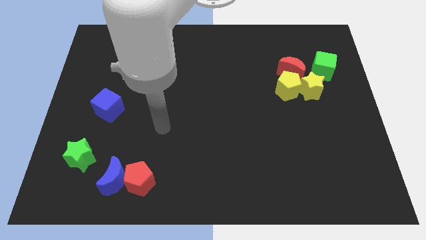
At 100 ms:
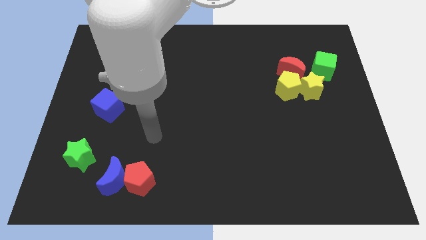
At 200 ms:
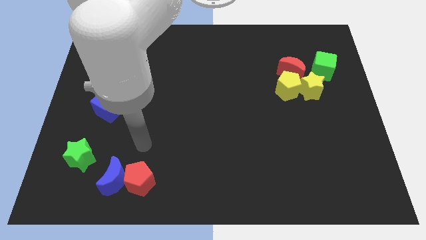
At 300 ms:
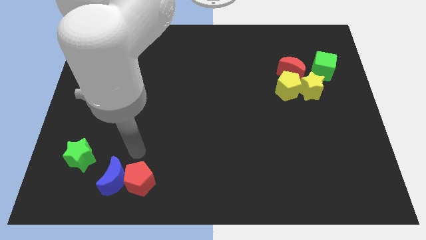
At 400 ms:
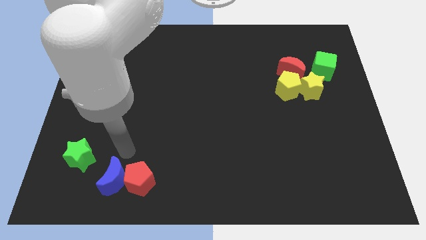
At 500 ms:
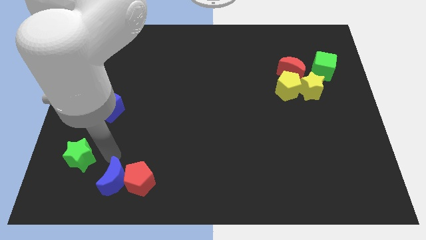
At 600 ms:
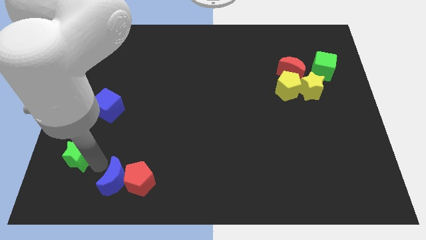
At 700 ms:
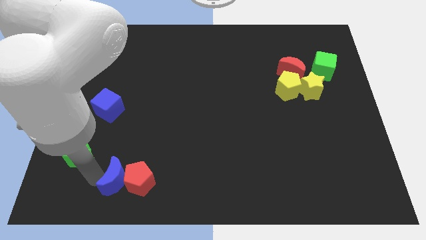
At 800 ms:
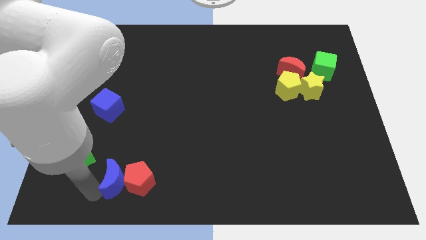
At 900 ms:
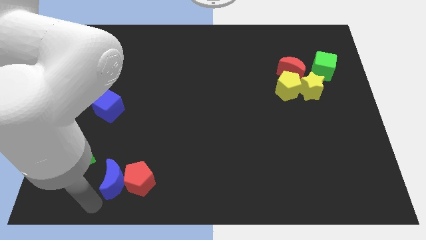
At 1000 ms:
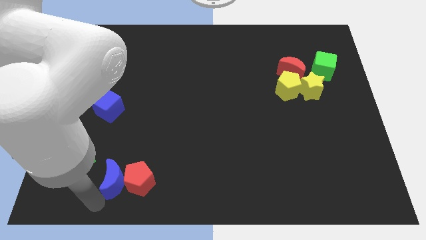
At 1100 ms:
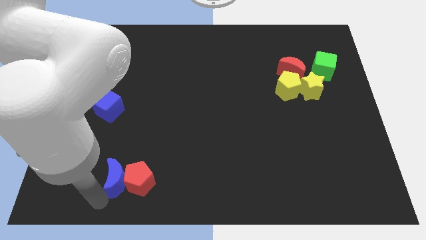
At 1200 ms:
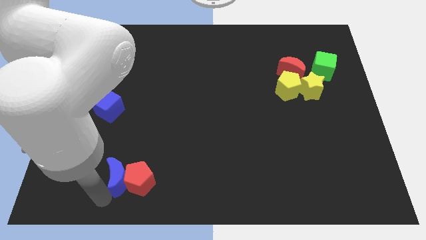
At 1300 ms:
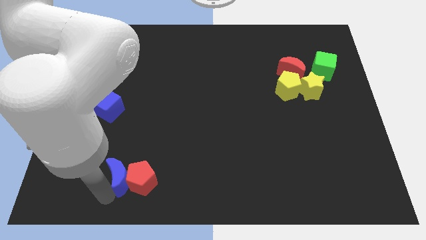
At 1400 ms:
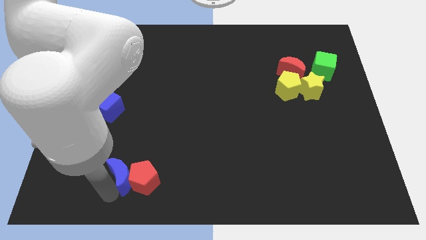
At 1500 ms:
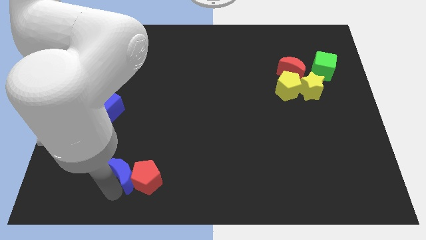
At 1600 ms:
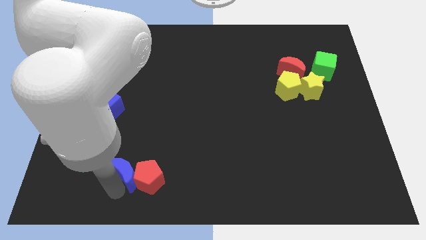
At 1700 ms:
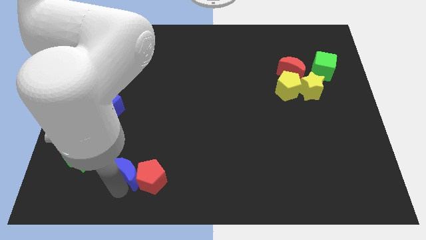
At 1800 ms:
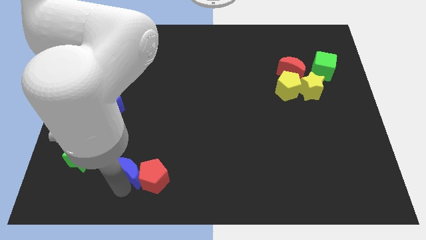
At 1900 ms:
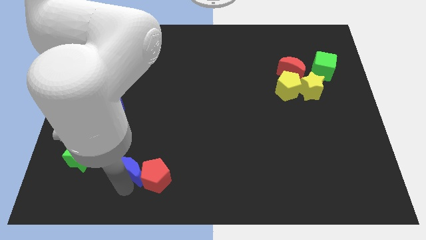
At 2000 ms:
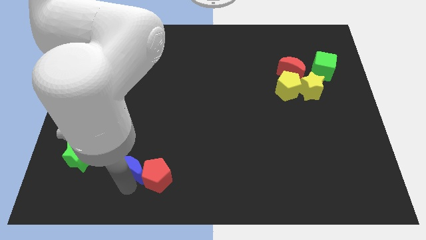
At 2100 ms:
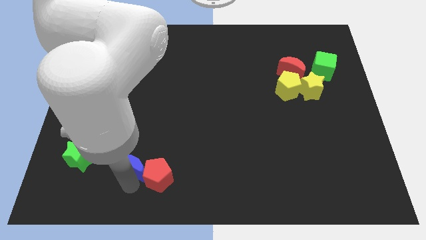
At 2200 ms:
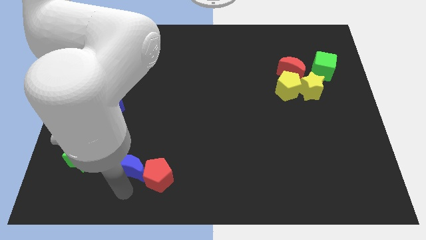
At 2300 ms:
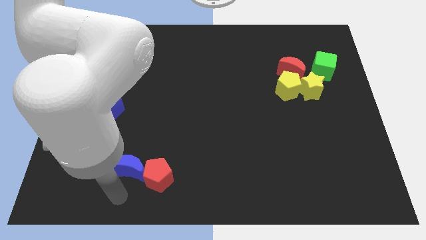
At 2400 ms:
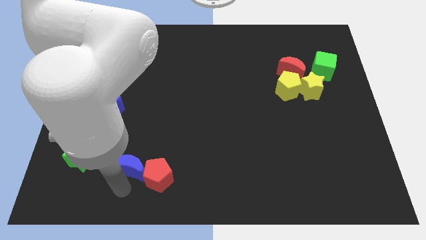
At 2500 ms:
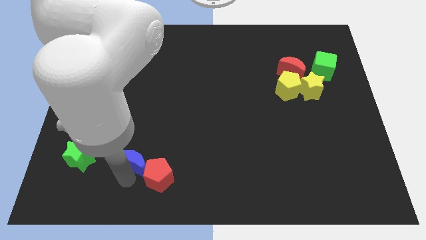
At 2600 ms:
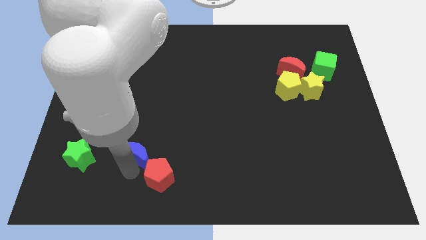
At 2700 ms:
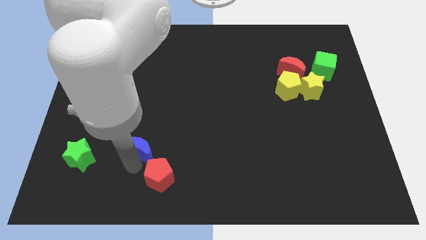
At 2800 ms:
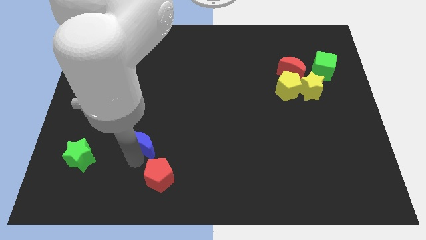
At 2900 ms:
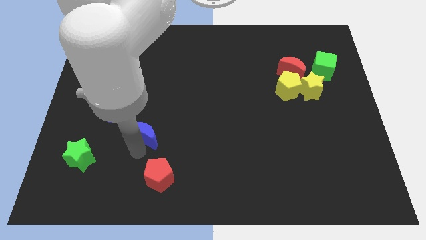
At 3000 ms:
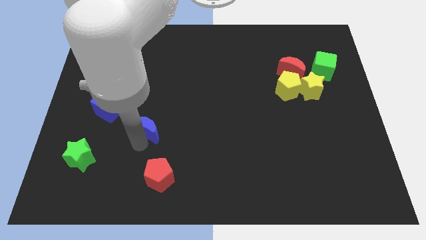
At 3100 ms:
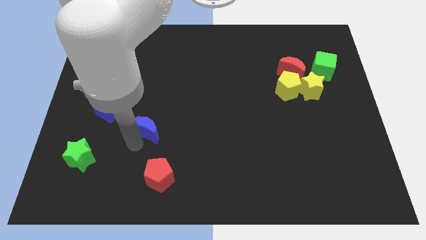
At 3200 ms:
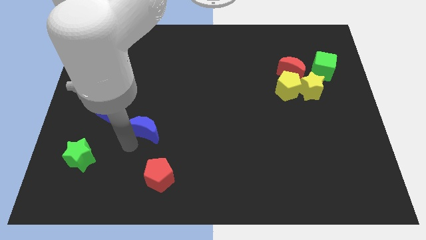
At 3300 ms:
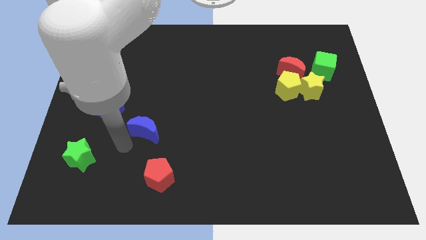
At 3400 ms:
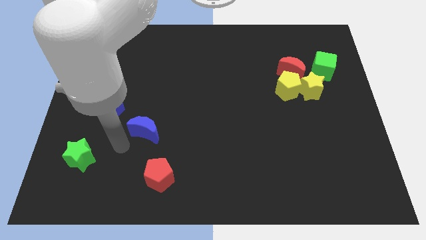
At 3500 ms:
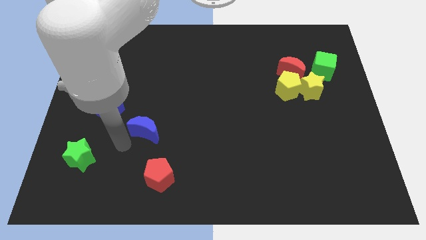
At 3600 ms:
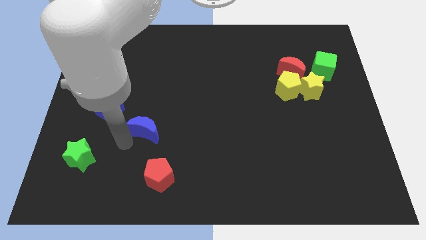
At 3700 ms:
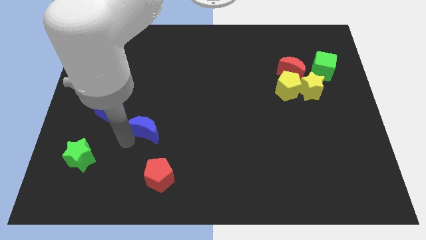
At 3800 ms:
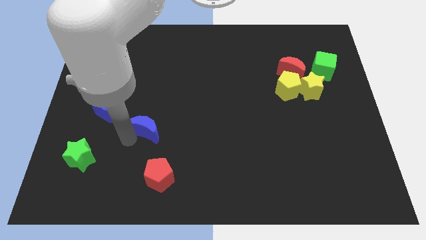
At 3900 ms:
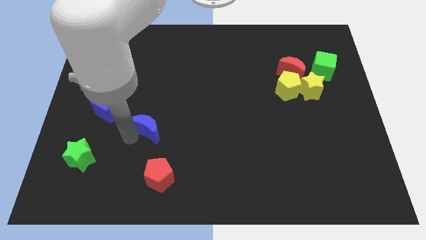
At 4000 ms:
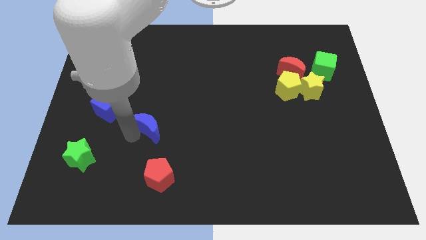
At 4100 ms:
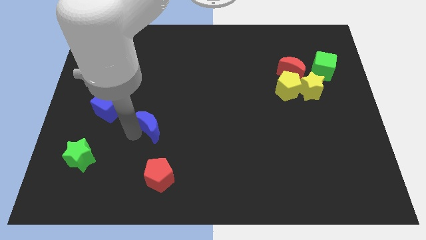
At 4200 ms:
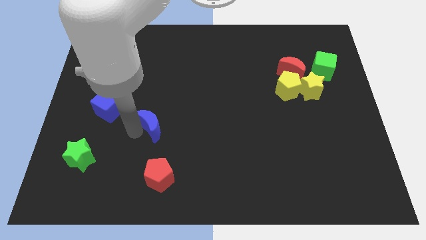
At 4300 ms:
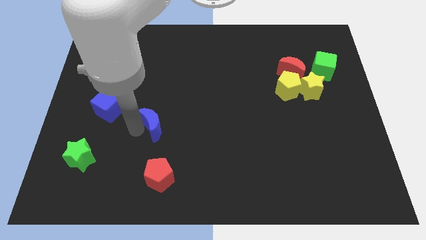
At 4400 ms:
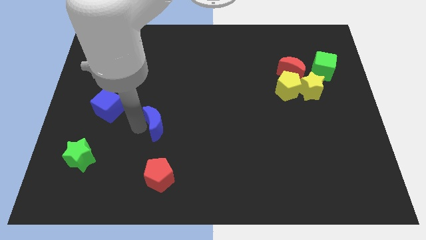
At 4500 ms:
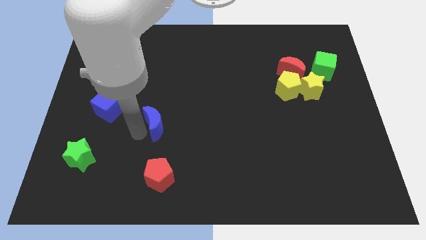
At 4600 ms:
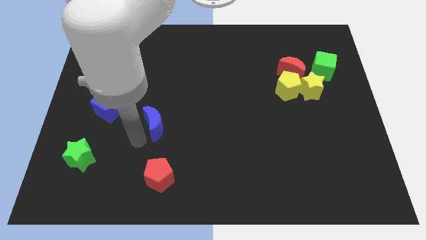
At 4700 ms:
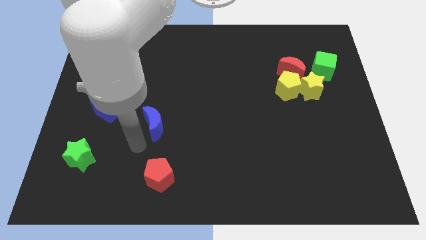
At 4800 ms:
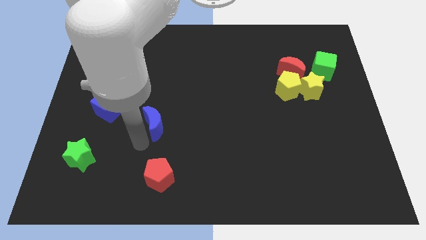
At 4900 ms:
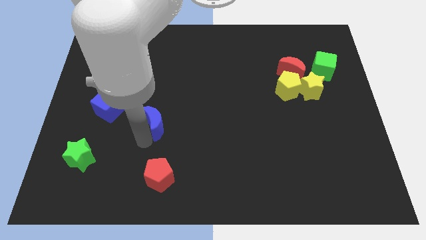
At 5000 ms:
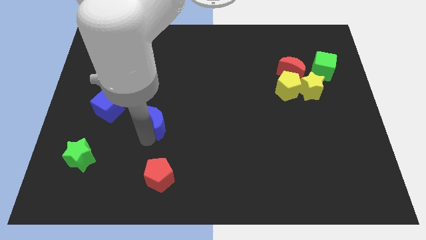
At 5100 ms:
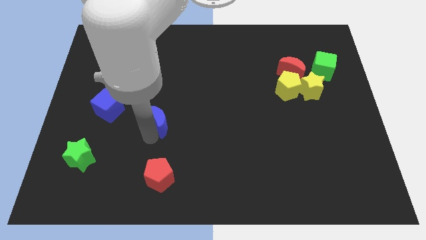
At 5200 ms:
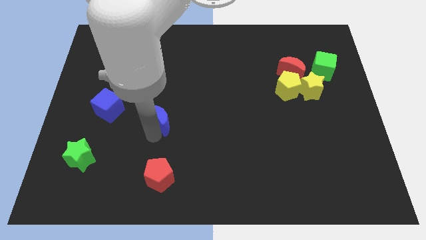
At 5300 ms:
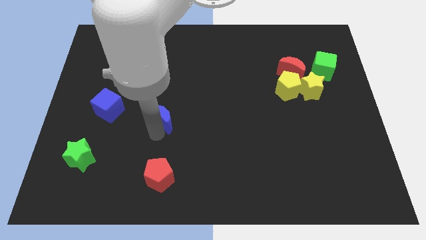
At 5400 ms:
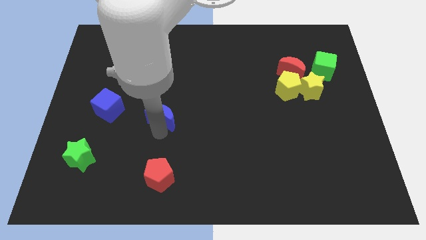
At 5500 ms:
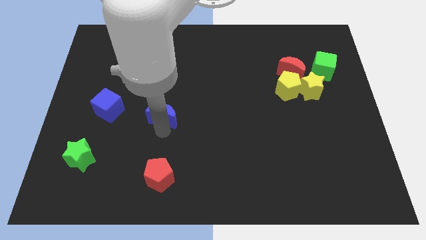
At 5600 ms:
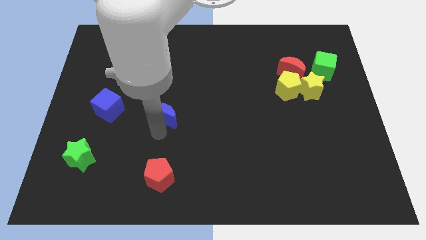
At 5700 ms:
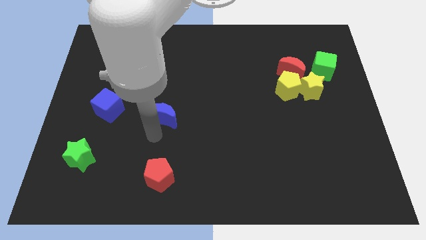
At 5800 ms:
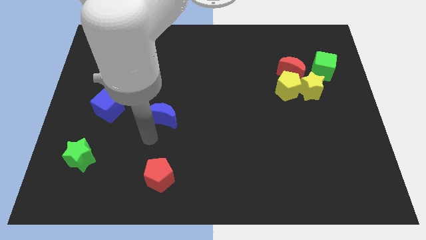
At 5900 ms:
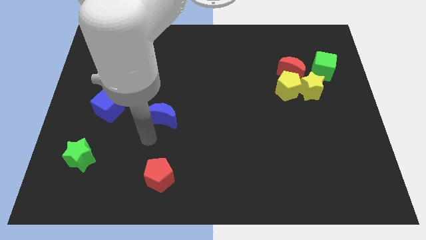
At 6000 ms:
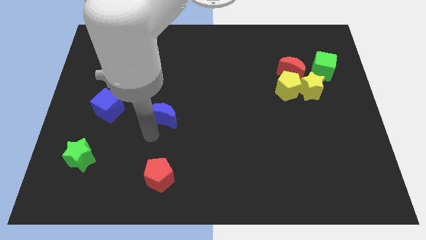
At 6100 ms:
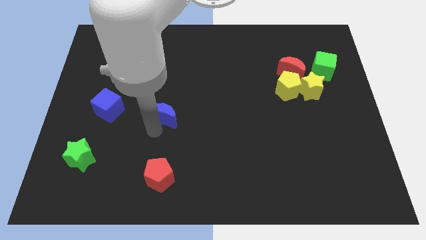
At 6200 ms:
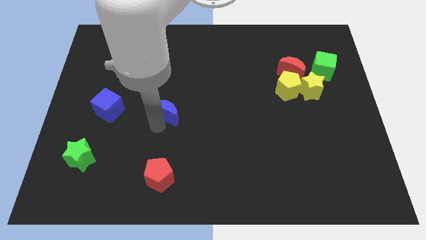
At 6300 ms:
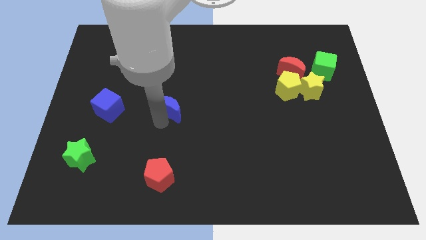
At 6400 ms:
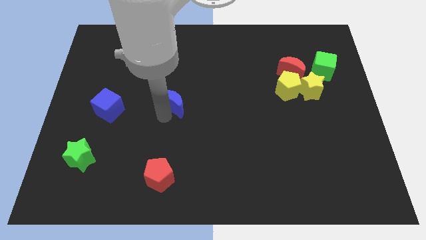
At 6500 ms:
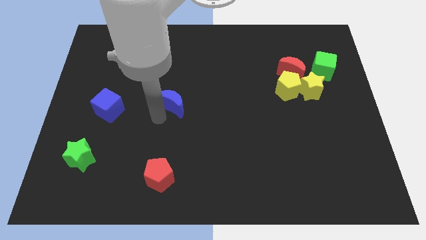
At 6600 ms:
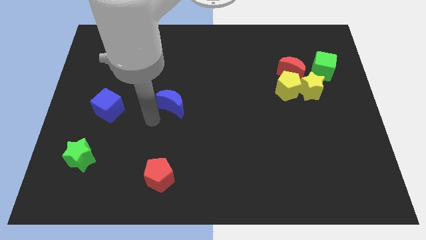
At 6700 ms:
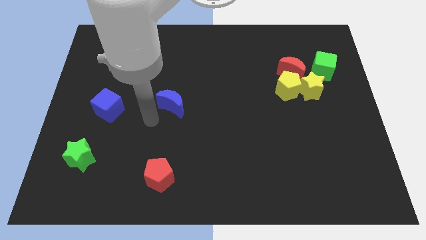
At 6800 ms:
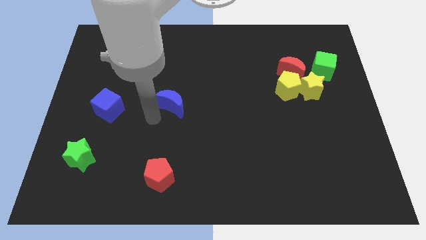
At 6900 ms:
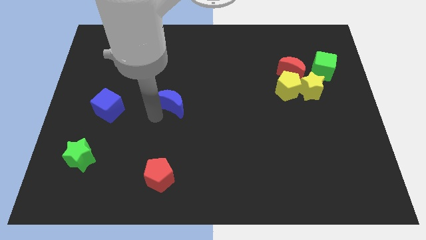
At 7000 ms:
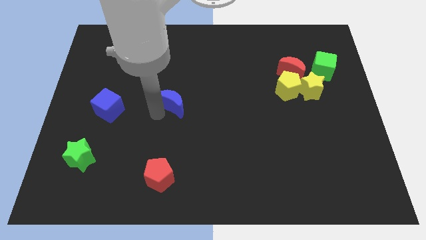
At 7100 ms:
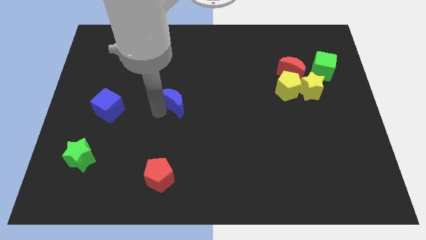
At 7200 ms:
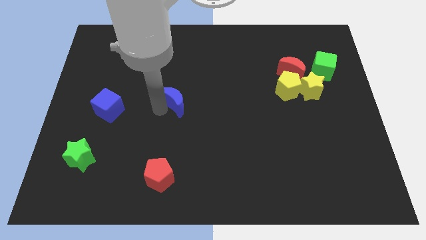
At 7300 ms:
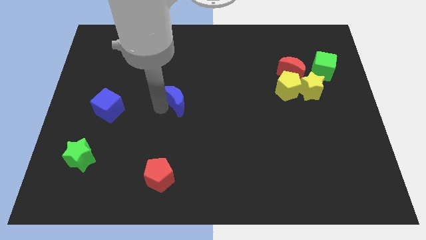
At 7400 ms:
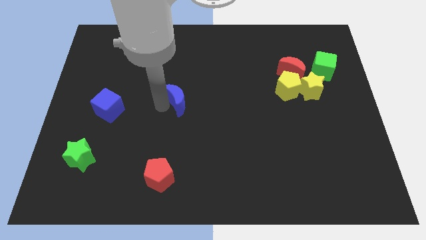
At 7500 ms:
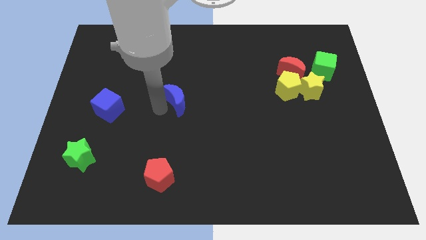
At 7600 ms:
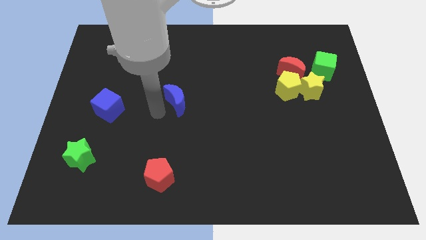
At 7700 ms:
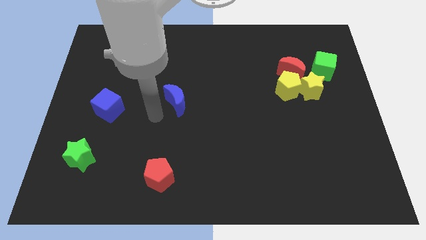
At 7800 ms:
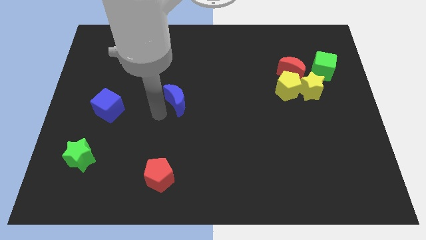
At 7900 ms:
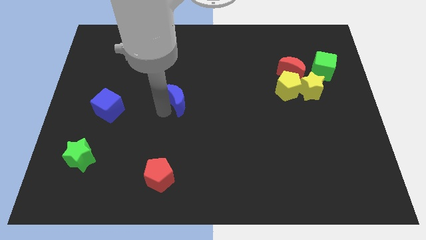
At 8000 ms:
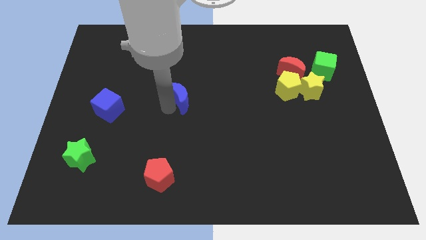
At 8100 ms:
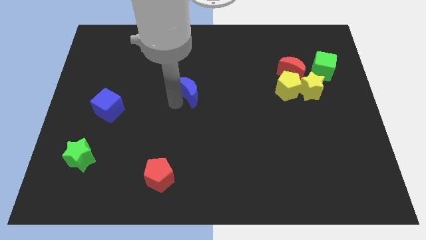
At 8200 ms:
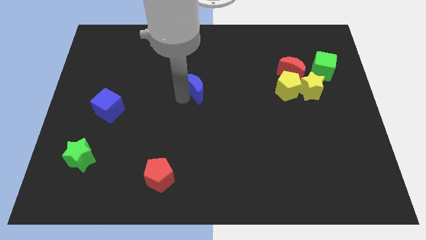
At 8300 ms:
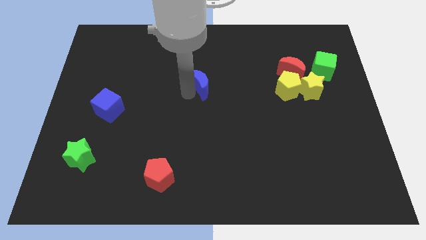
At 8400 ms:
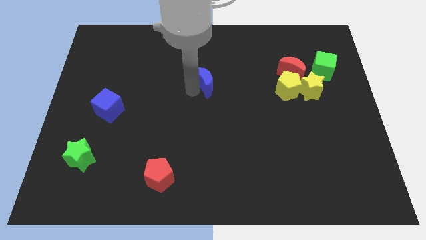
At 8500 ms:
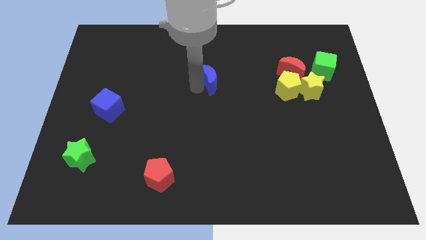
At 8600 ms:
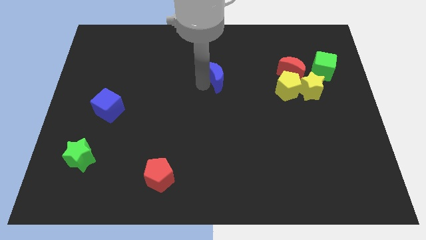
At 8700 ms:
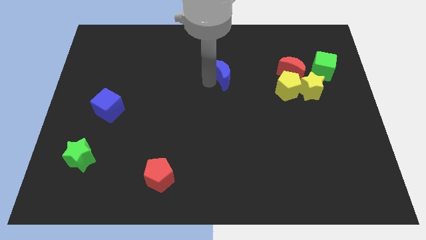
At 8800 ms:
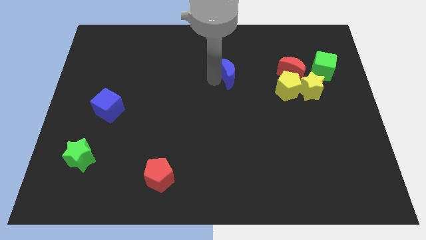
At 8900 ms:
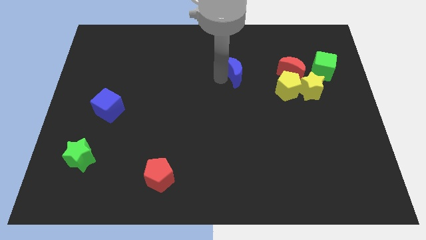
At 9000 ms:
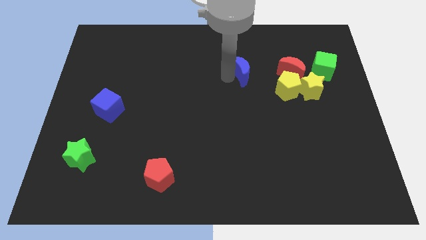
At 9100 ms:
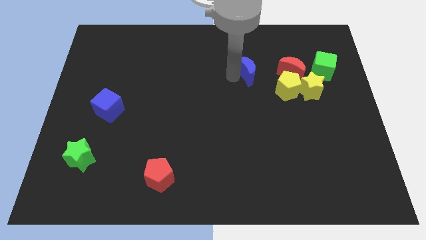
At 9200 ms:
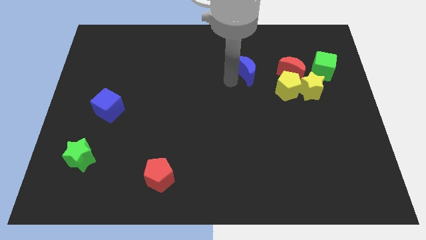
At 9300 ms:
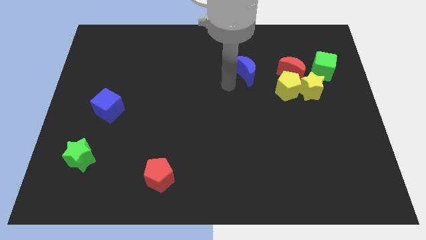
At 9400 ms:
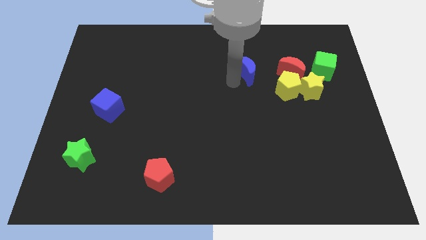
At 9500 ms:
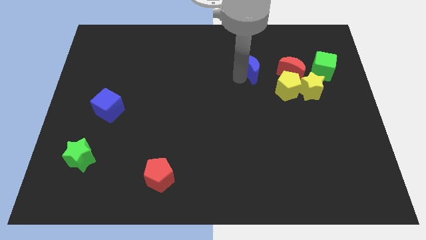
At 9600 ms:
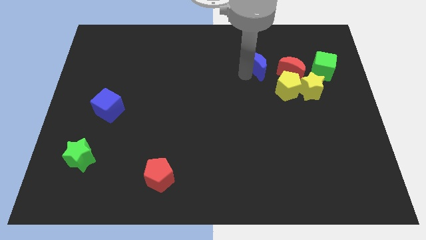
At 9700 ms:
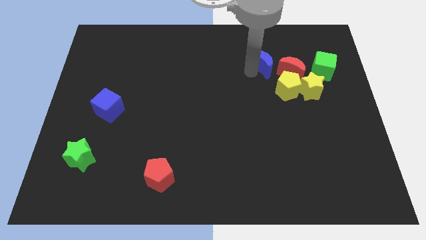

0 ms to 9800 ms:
put the blue moon diagonally up and to the left of the red moon
